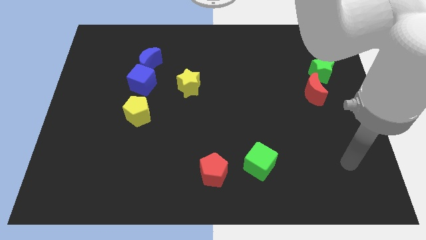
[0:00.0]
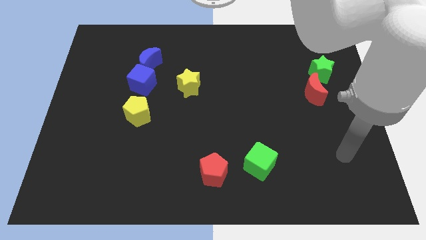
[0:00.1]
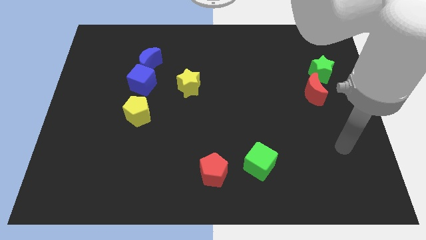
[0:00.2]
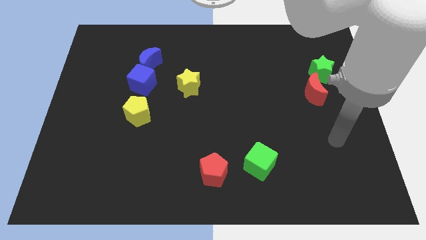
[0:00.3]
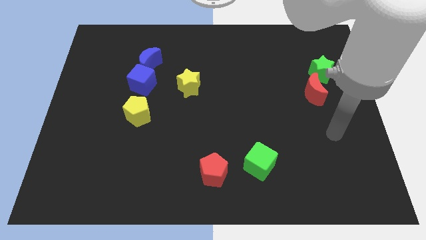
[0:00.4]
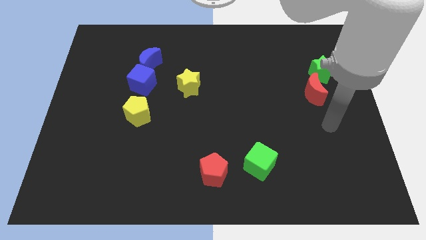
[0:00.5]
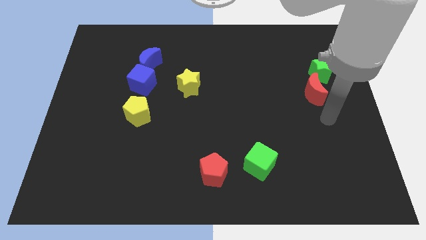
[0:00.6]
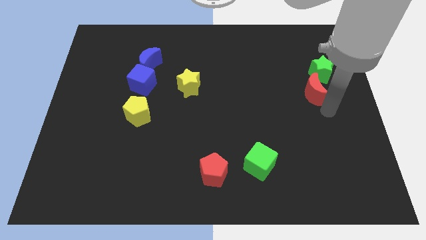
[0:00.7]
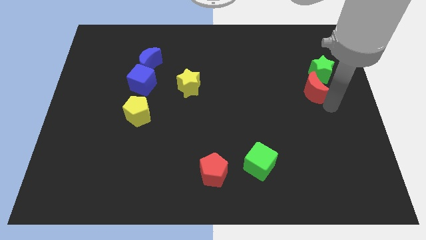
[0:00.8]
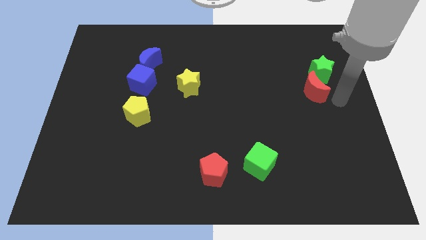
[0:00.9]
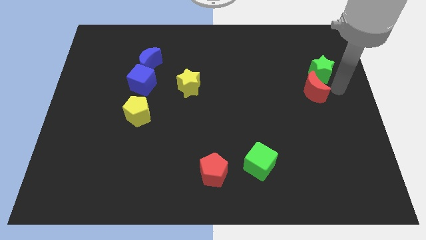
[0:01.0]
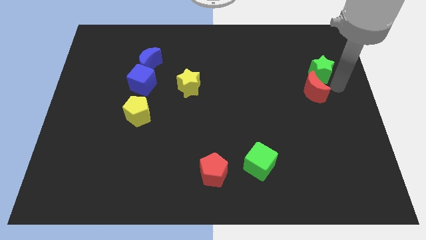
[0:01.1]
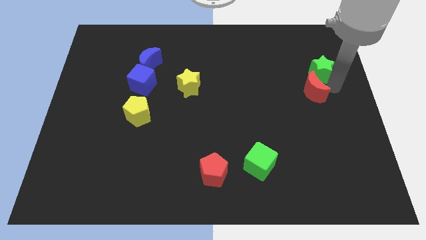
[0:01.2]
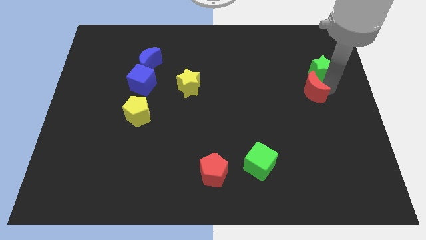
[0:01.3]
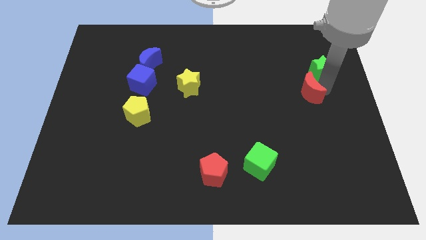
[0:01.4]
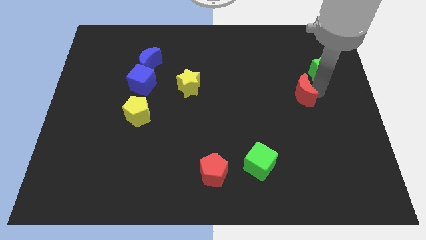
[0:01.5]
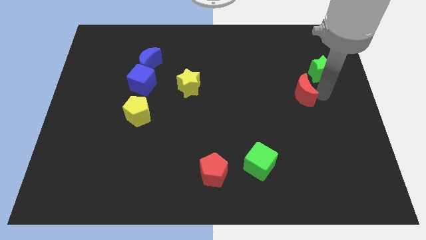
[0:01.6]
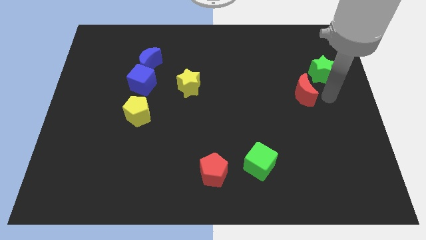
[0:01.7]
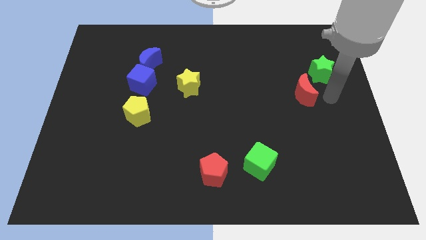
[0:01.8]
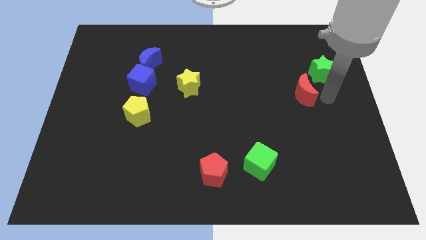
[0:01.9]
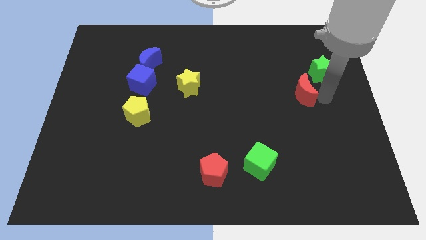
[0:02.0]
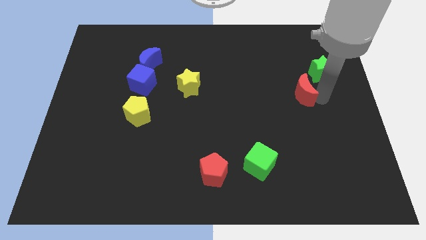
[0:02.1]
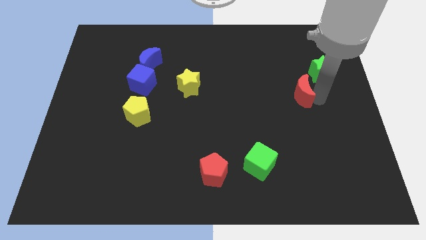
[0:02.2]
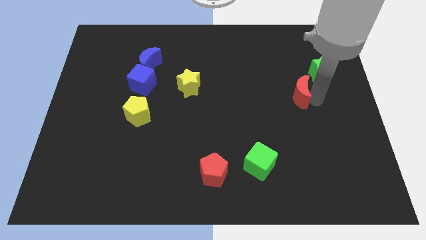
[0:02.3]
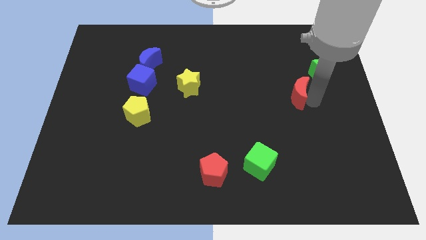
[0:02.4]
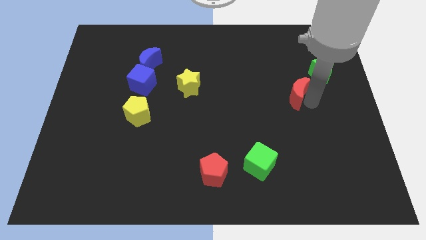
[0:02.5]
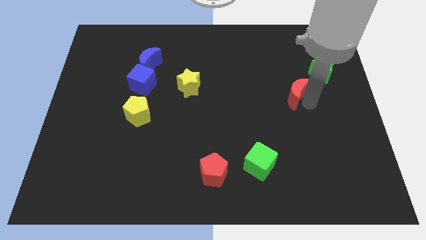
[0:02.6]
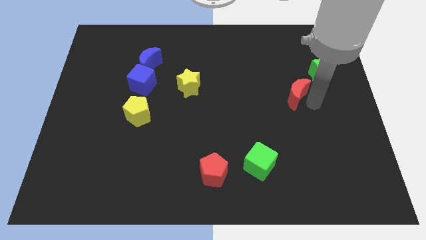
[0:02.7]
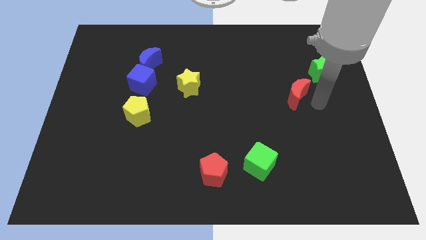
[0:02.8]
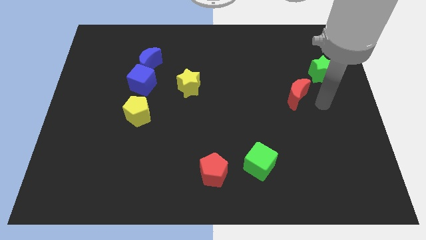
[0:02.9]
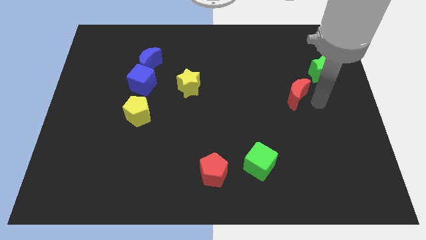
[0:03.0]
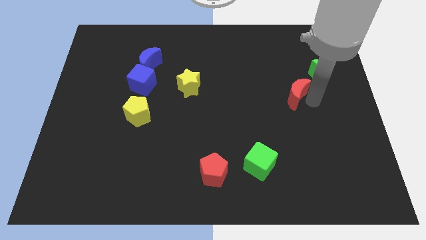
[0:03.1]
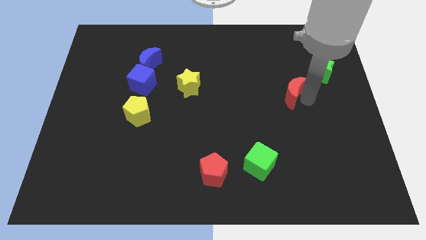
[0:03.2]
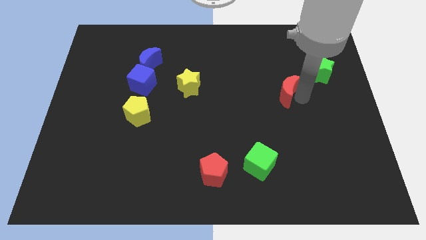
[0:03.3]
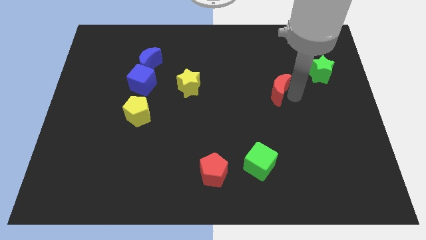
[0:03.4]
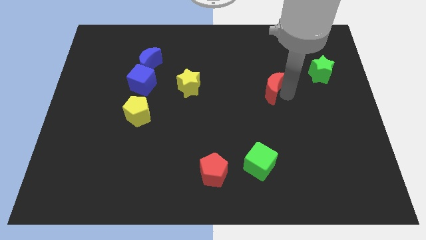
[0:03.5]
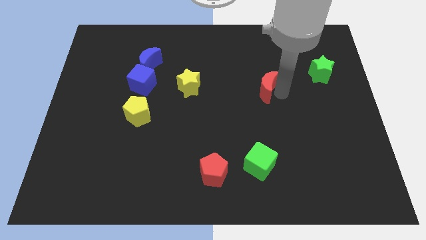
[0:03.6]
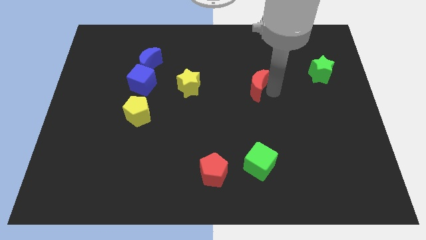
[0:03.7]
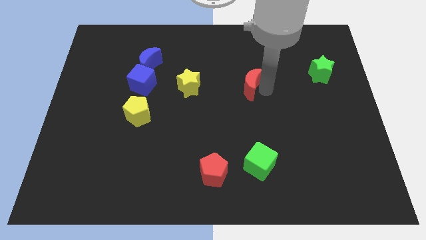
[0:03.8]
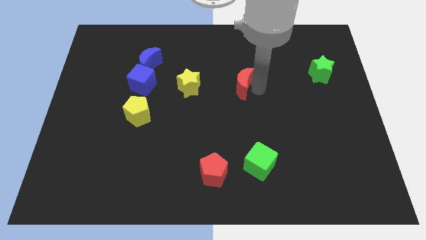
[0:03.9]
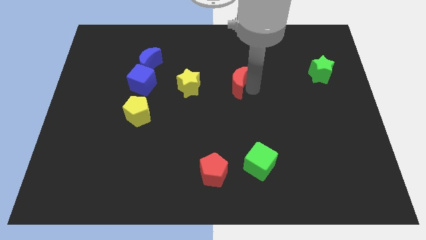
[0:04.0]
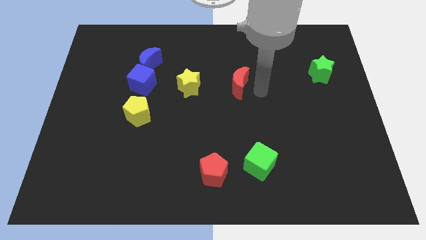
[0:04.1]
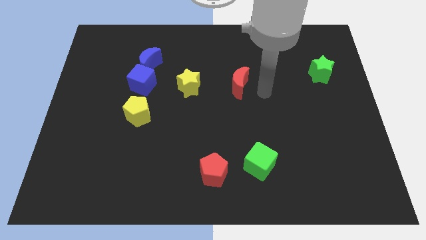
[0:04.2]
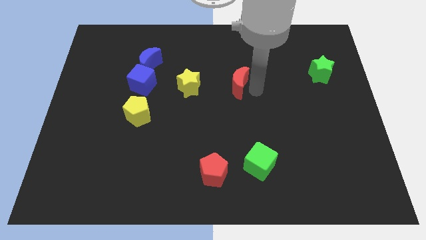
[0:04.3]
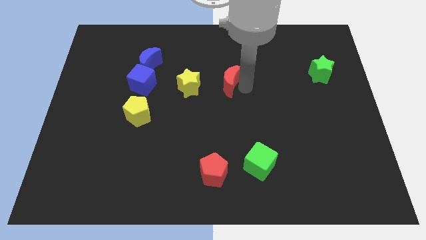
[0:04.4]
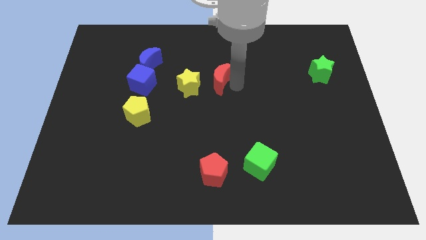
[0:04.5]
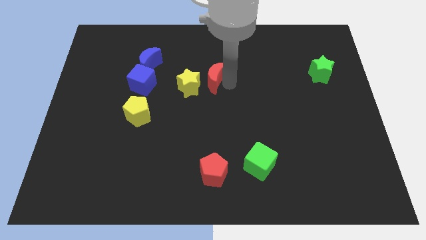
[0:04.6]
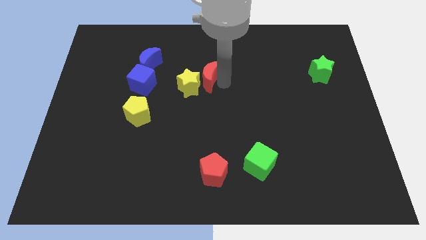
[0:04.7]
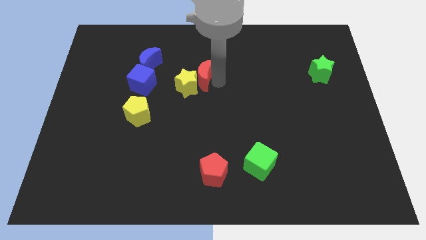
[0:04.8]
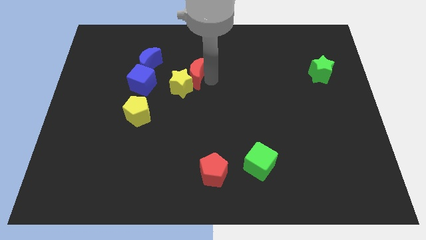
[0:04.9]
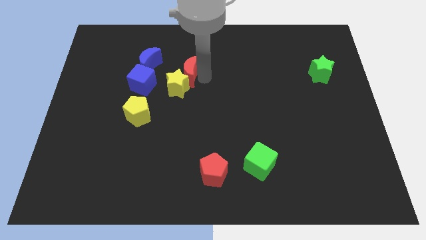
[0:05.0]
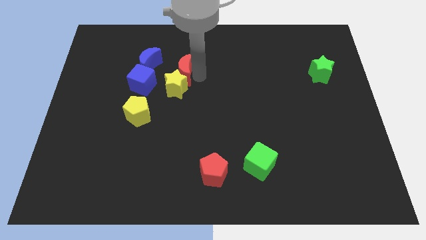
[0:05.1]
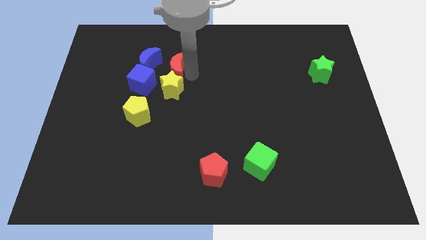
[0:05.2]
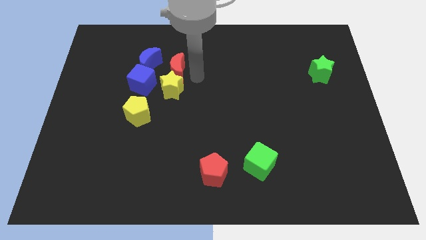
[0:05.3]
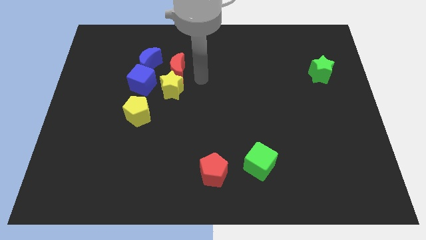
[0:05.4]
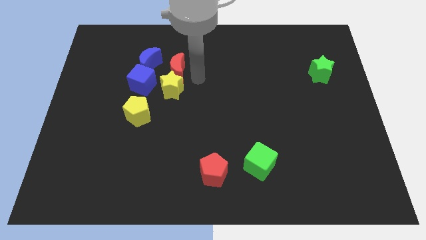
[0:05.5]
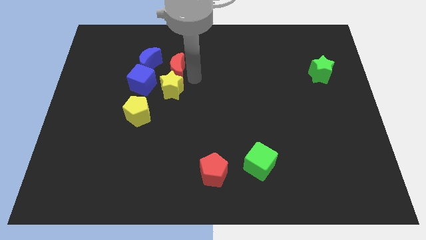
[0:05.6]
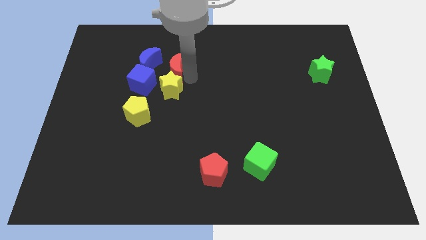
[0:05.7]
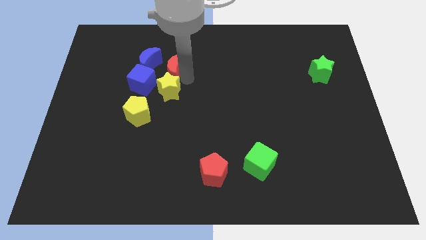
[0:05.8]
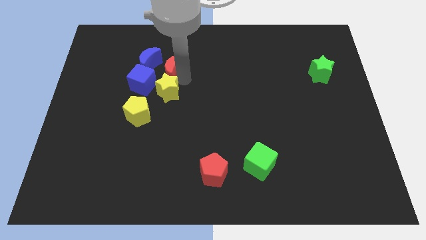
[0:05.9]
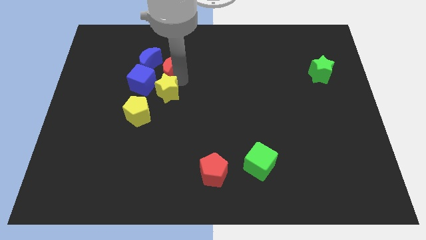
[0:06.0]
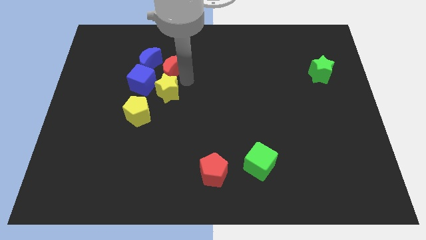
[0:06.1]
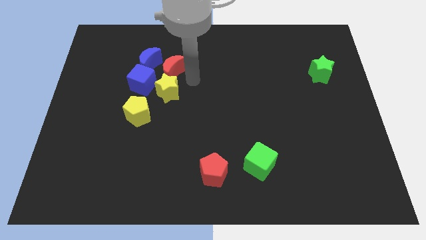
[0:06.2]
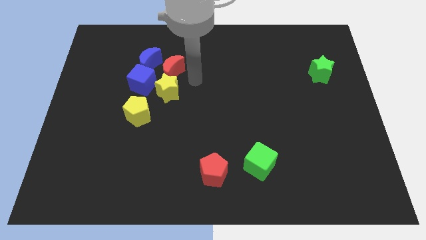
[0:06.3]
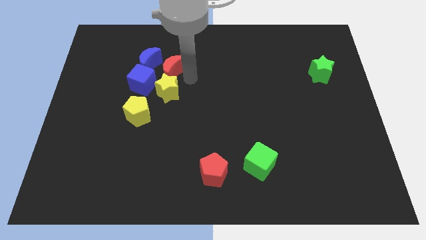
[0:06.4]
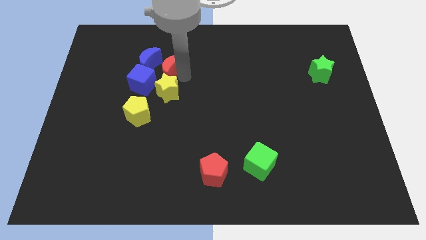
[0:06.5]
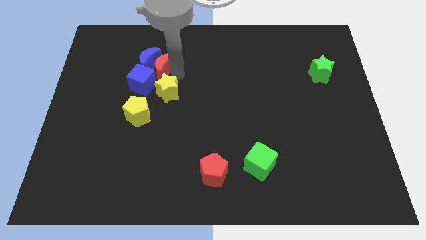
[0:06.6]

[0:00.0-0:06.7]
put the red moon towards the blue moon
